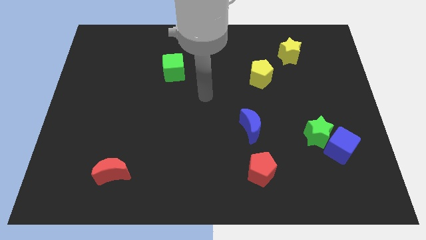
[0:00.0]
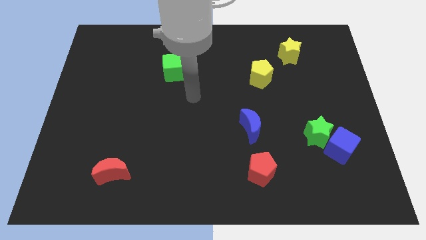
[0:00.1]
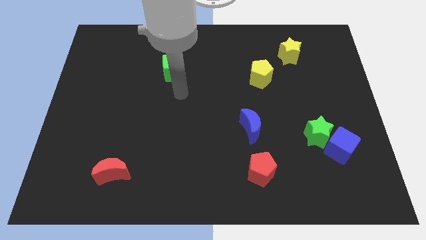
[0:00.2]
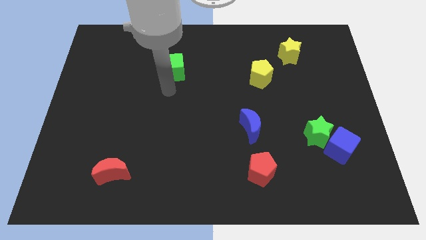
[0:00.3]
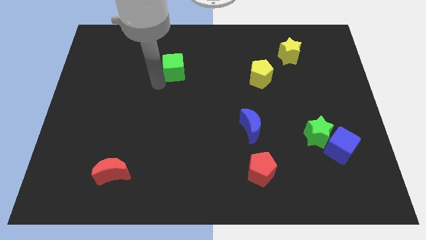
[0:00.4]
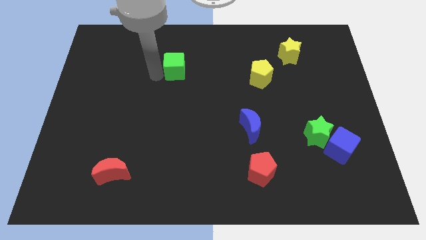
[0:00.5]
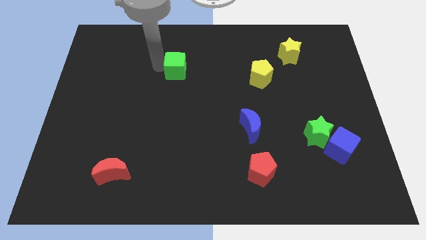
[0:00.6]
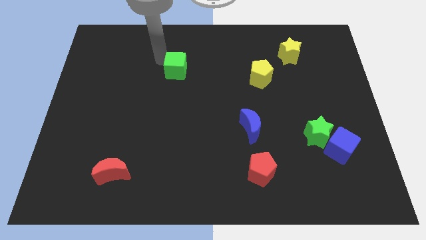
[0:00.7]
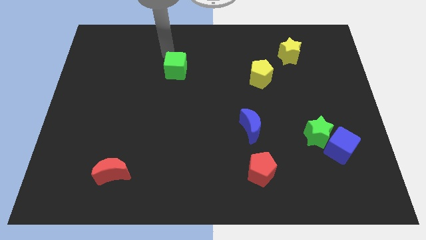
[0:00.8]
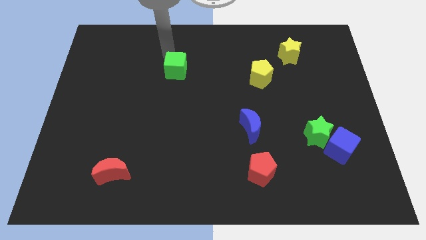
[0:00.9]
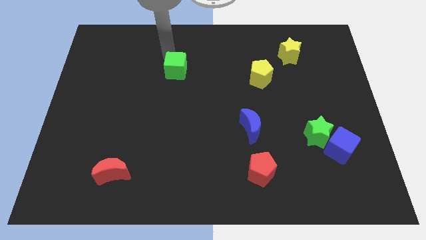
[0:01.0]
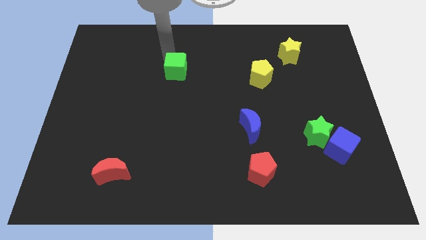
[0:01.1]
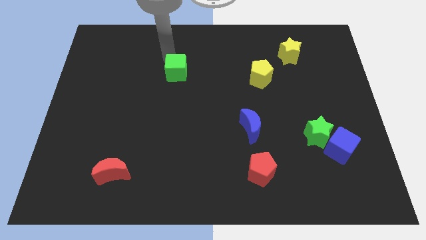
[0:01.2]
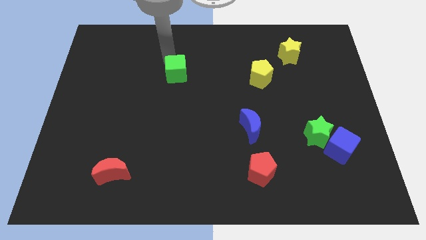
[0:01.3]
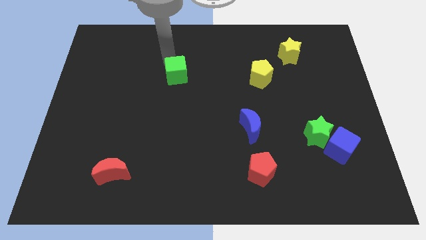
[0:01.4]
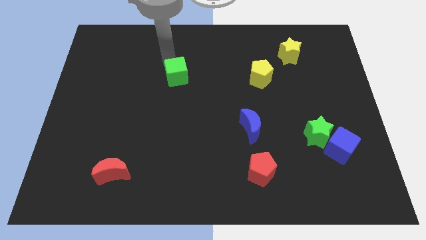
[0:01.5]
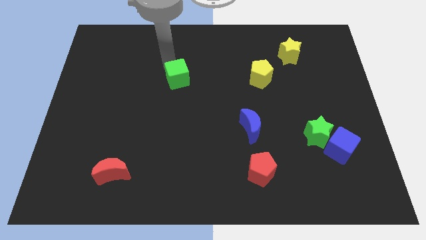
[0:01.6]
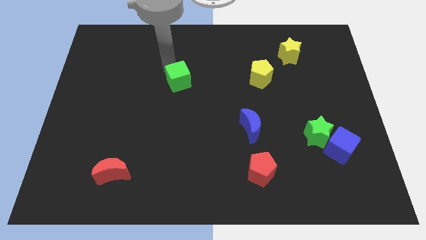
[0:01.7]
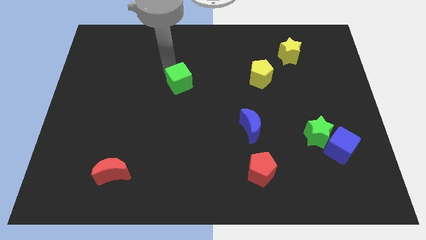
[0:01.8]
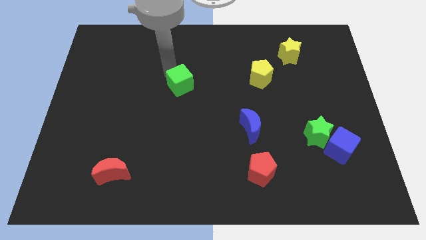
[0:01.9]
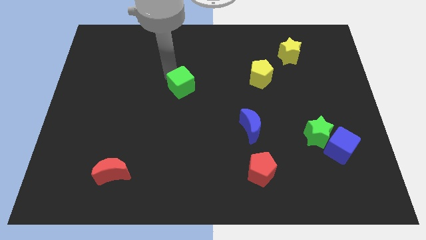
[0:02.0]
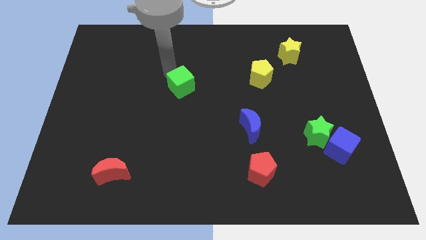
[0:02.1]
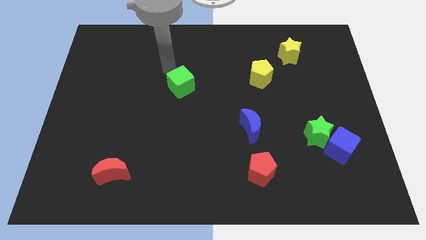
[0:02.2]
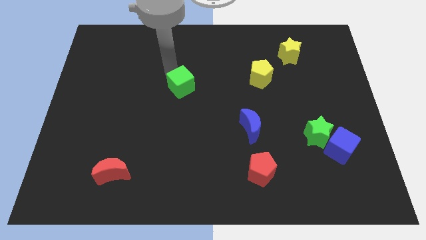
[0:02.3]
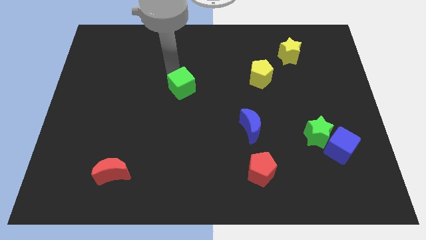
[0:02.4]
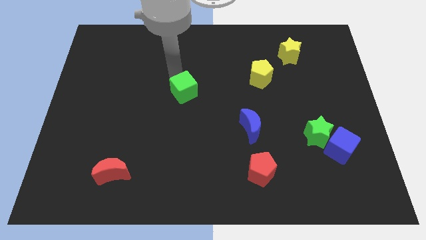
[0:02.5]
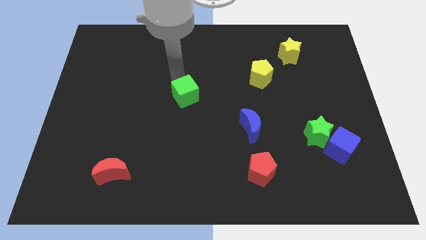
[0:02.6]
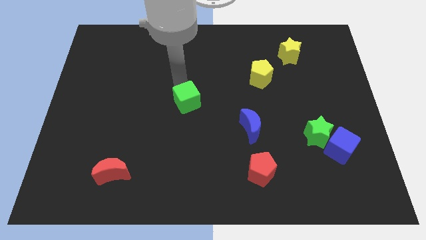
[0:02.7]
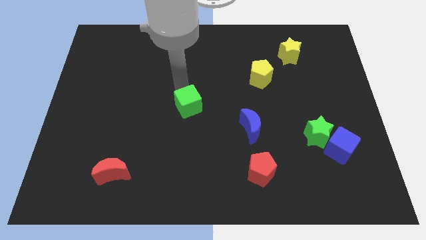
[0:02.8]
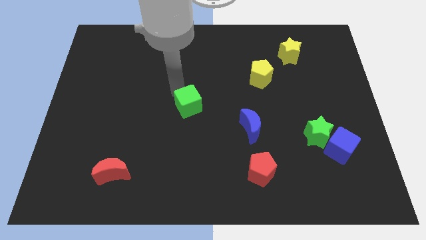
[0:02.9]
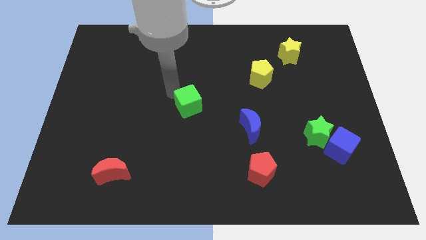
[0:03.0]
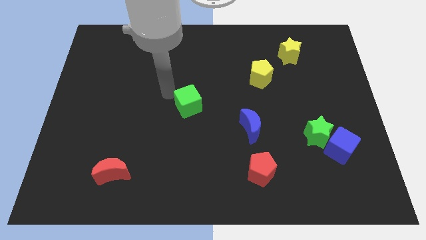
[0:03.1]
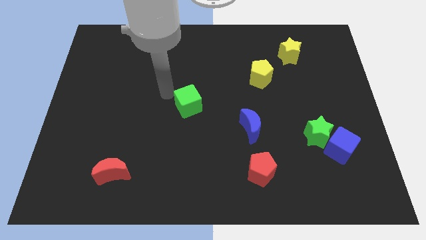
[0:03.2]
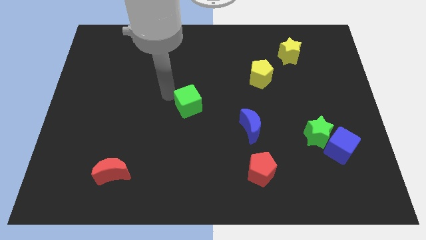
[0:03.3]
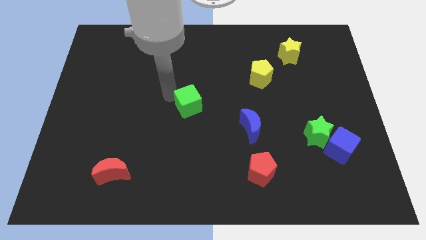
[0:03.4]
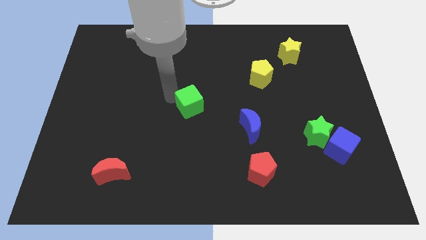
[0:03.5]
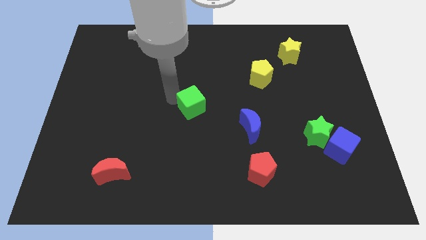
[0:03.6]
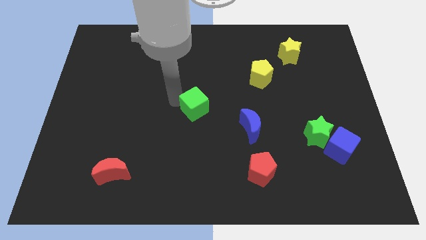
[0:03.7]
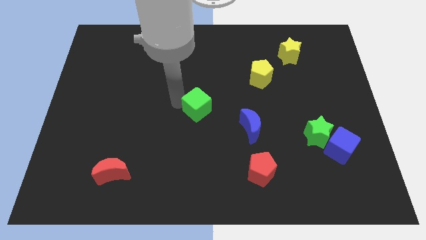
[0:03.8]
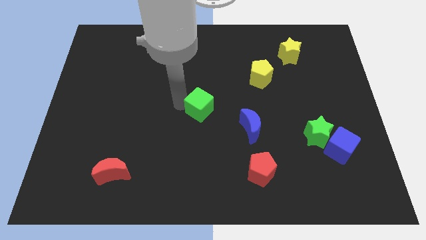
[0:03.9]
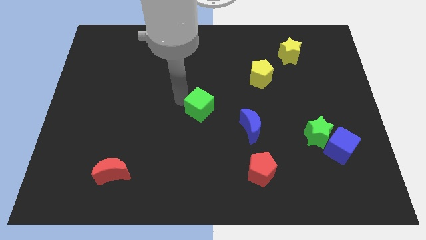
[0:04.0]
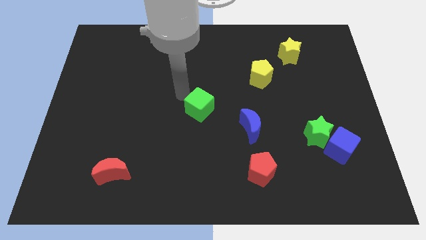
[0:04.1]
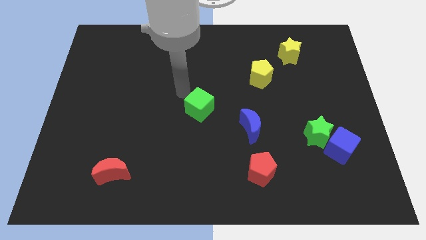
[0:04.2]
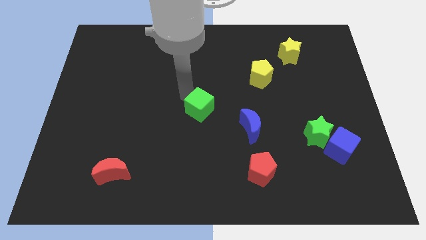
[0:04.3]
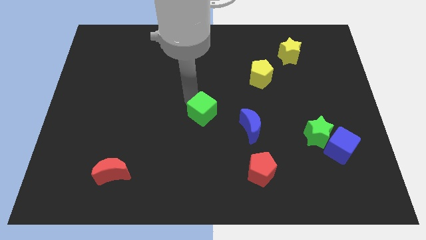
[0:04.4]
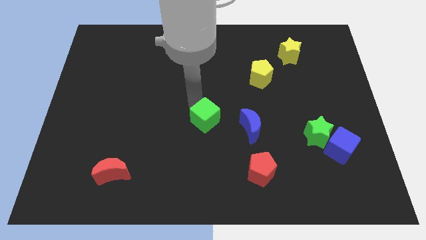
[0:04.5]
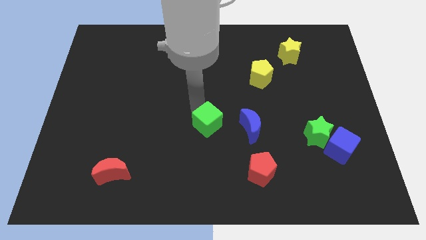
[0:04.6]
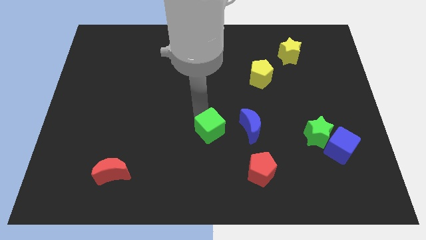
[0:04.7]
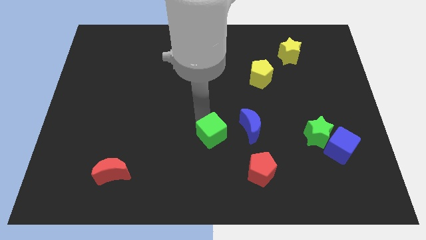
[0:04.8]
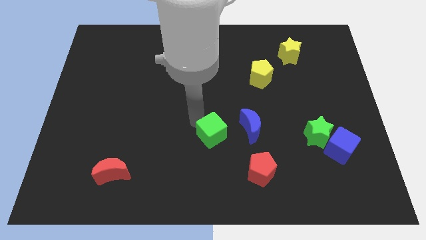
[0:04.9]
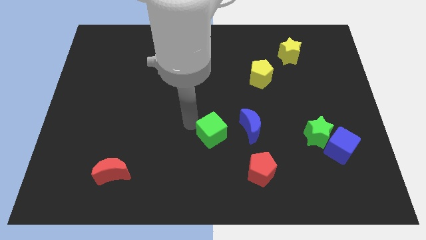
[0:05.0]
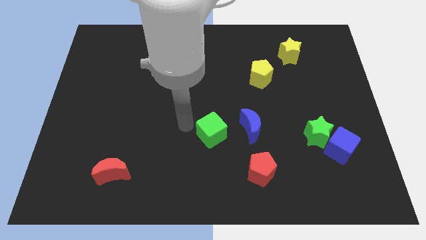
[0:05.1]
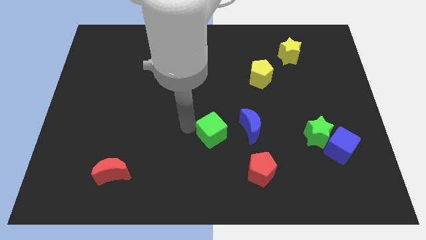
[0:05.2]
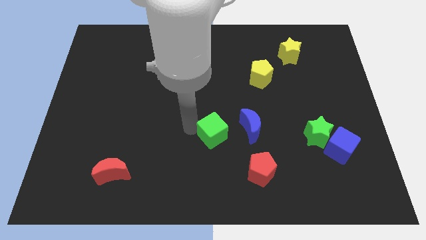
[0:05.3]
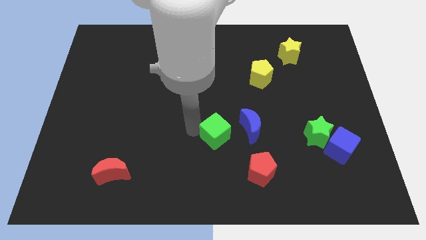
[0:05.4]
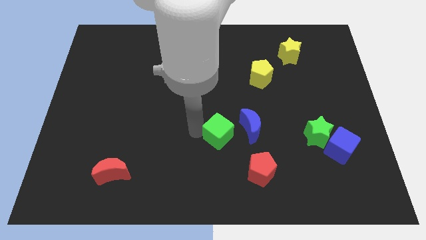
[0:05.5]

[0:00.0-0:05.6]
move the green cube down and then to the right

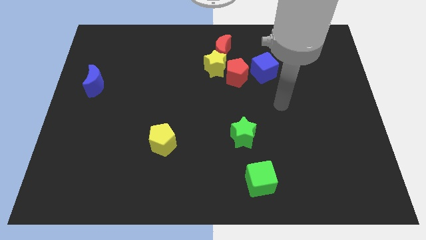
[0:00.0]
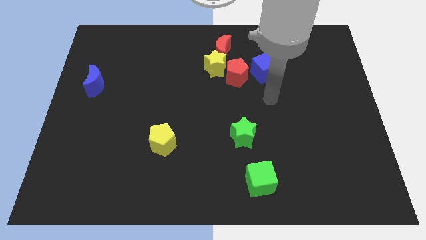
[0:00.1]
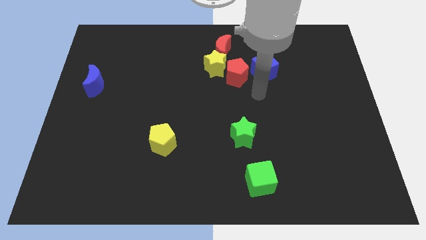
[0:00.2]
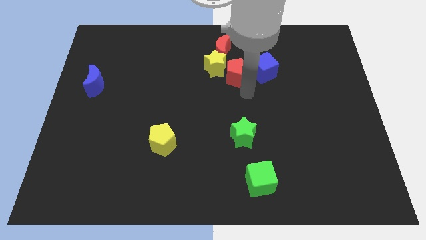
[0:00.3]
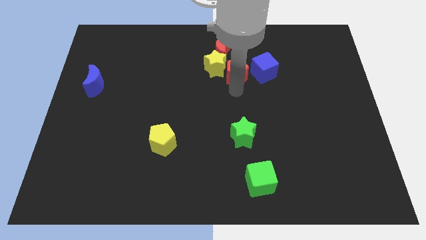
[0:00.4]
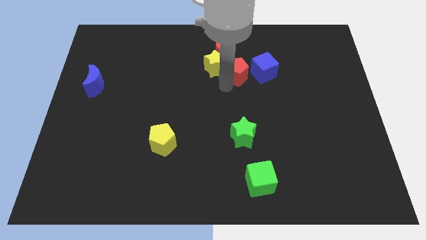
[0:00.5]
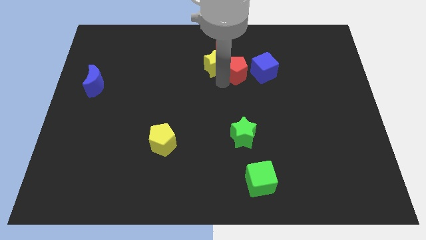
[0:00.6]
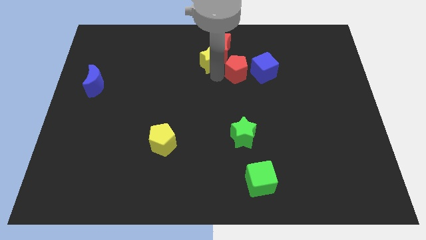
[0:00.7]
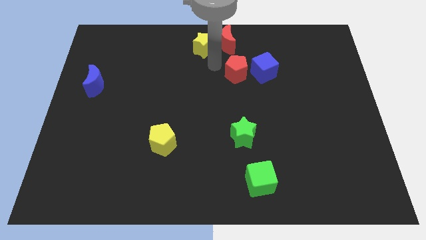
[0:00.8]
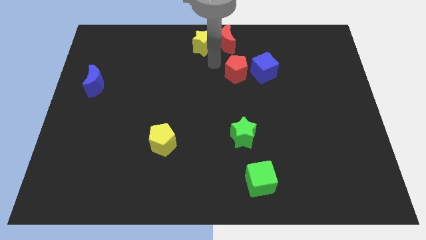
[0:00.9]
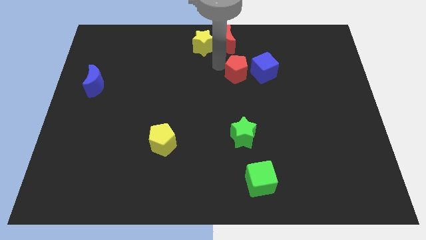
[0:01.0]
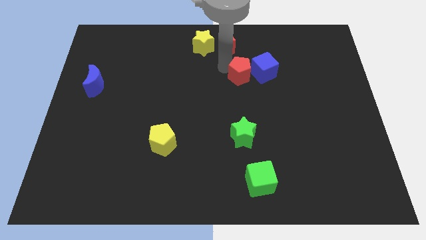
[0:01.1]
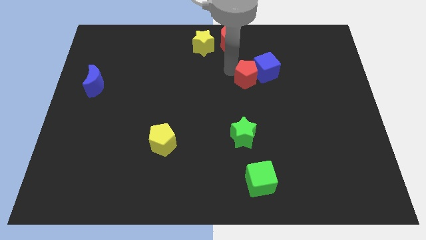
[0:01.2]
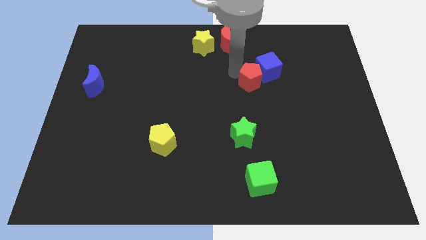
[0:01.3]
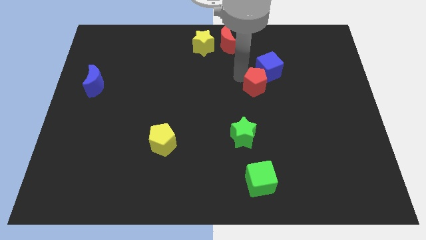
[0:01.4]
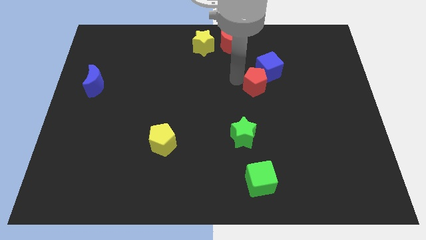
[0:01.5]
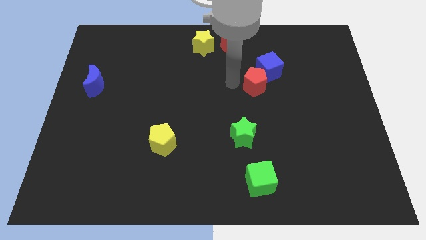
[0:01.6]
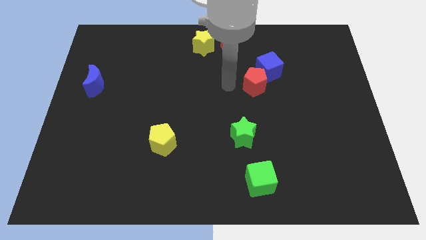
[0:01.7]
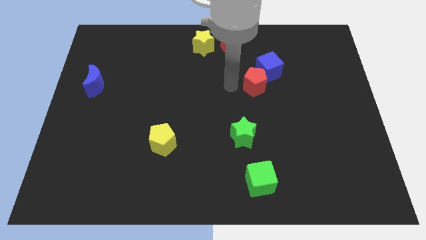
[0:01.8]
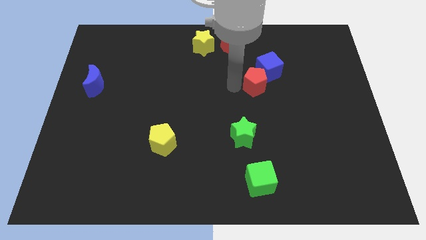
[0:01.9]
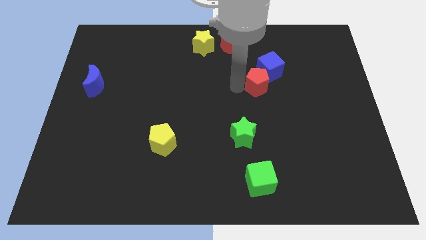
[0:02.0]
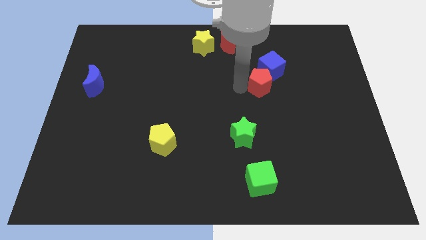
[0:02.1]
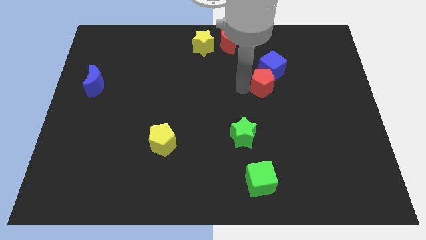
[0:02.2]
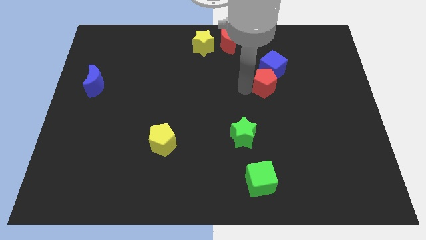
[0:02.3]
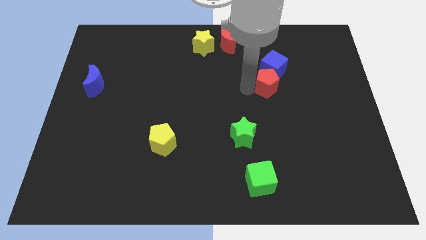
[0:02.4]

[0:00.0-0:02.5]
move the red pentagon a little right

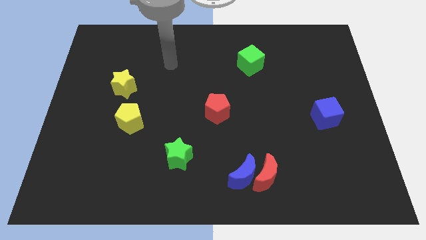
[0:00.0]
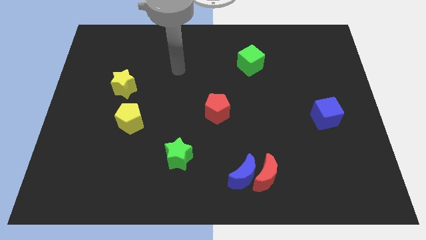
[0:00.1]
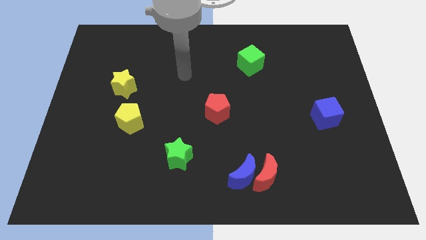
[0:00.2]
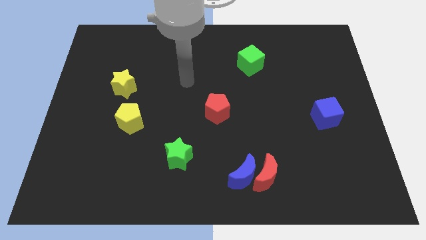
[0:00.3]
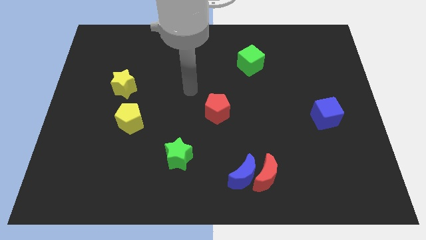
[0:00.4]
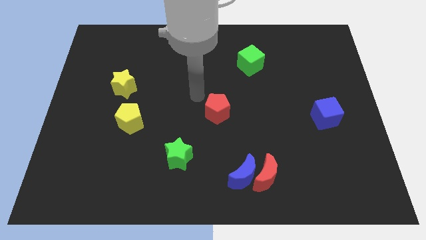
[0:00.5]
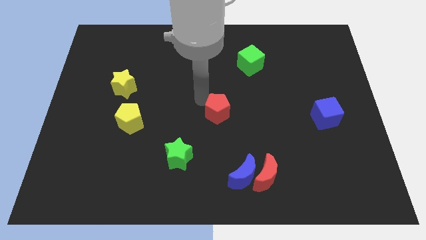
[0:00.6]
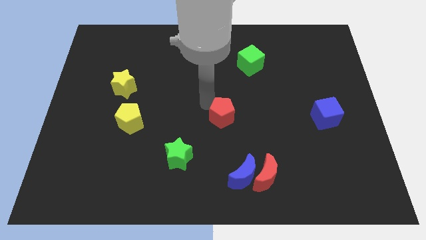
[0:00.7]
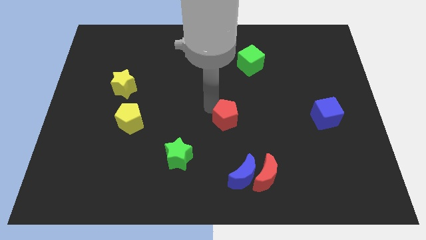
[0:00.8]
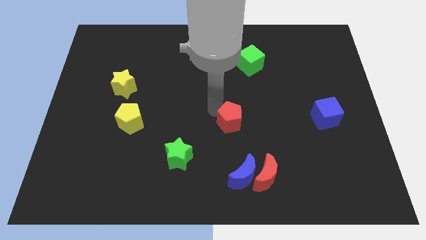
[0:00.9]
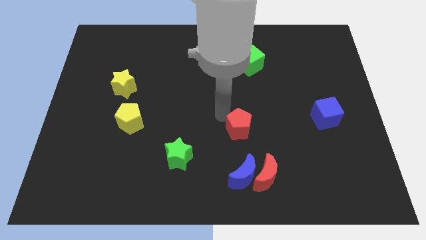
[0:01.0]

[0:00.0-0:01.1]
push the red pentagon down and then to the right somewhat
